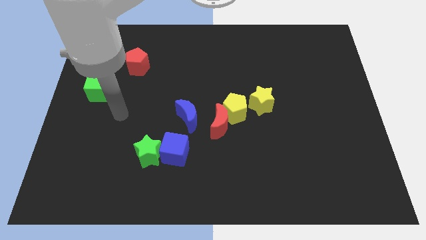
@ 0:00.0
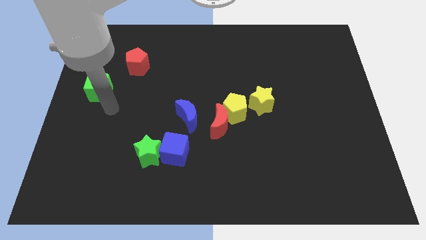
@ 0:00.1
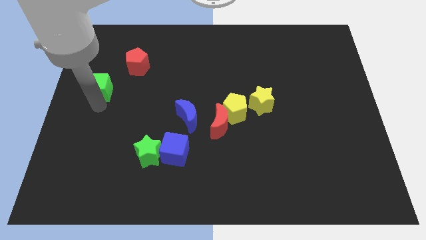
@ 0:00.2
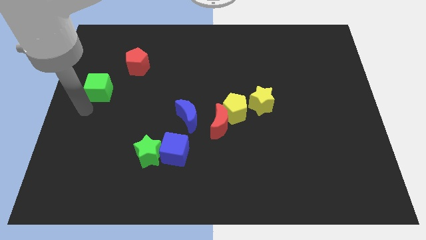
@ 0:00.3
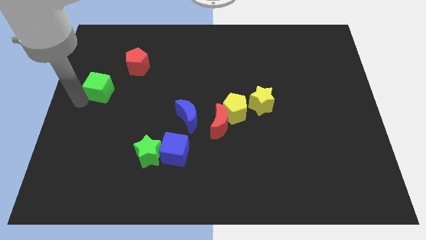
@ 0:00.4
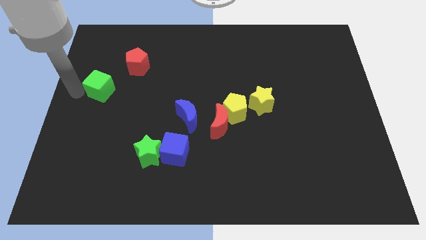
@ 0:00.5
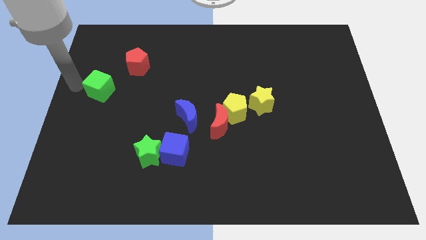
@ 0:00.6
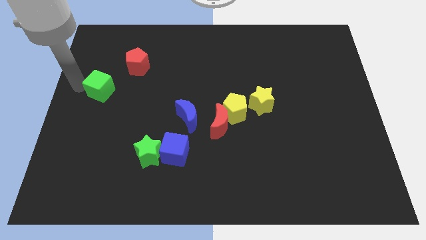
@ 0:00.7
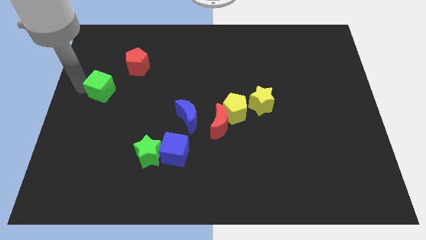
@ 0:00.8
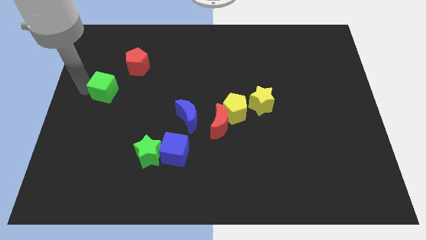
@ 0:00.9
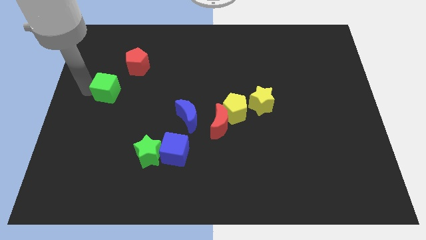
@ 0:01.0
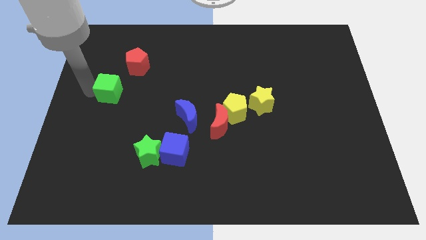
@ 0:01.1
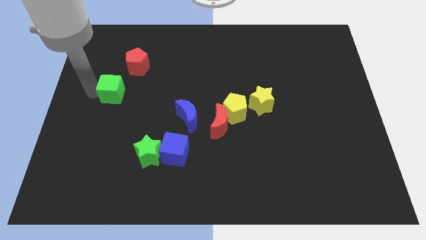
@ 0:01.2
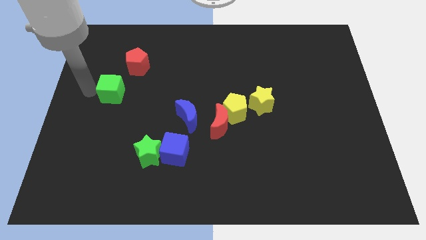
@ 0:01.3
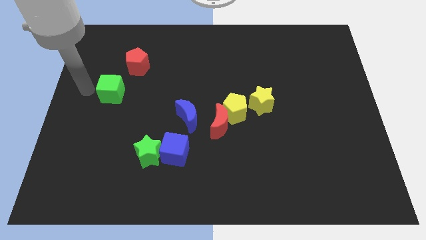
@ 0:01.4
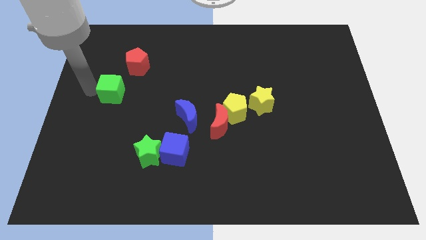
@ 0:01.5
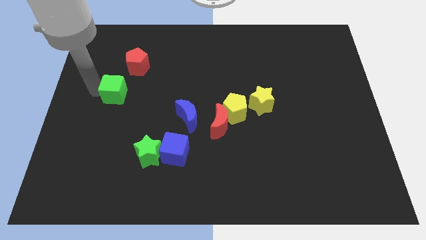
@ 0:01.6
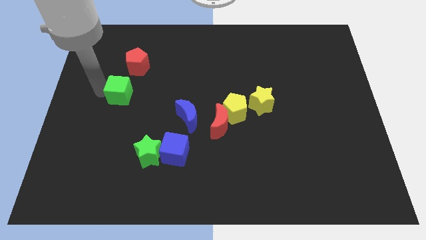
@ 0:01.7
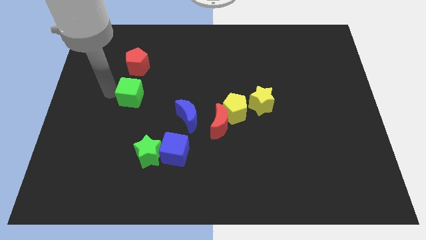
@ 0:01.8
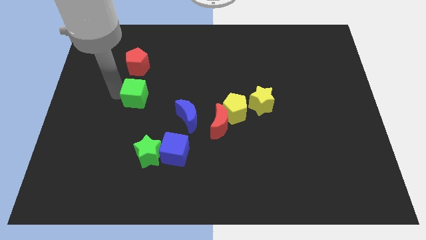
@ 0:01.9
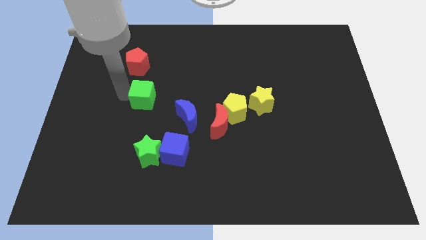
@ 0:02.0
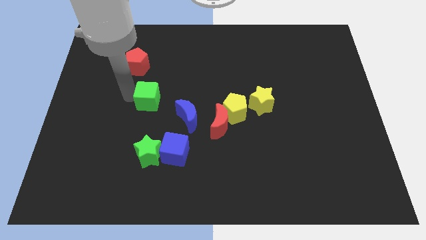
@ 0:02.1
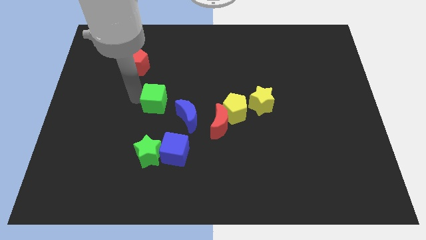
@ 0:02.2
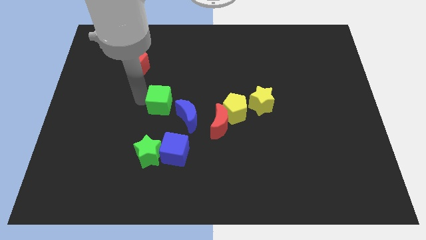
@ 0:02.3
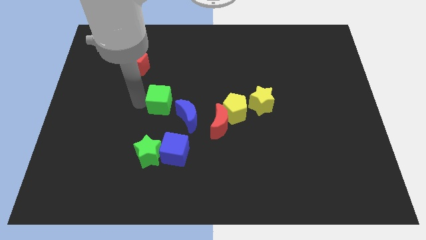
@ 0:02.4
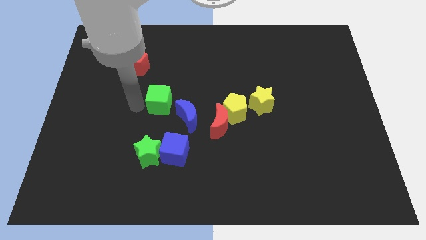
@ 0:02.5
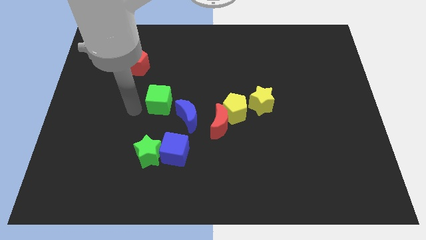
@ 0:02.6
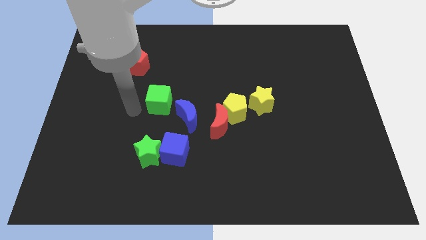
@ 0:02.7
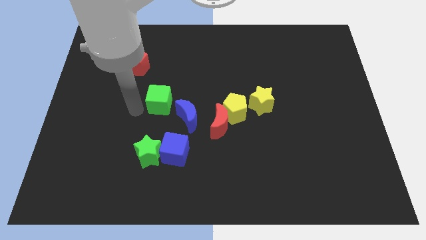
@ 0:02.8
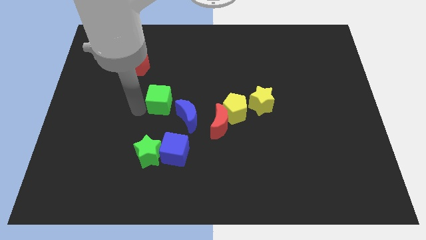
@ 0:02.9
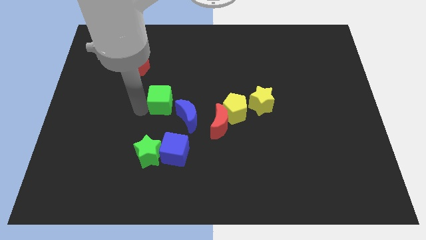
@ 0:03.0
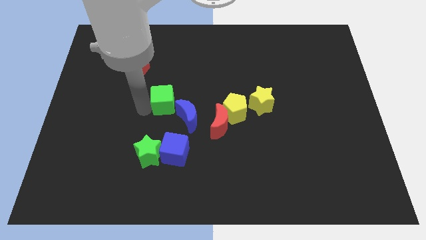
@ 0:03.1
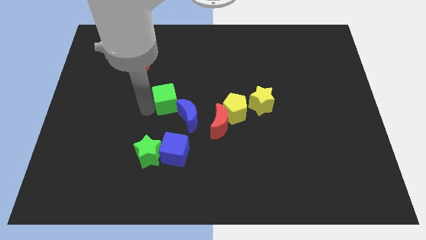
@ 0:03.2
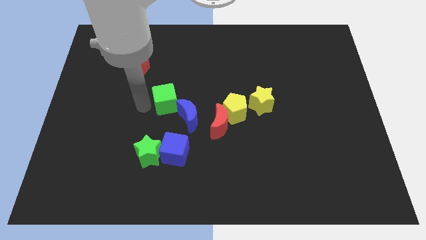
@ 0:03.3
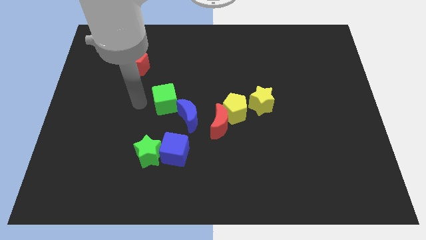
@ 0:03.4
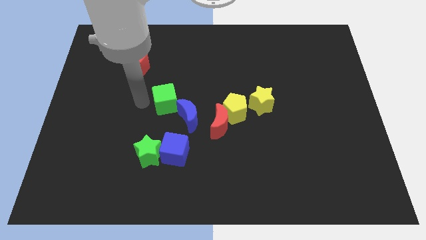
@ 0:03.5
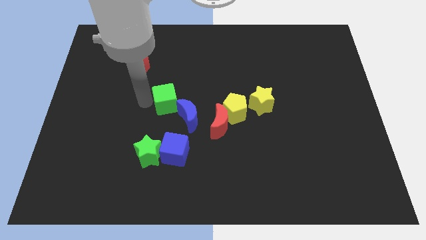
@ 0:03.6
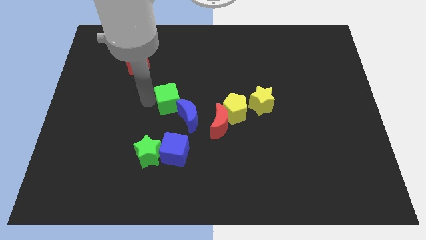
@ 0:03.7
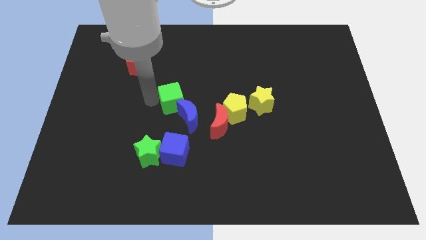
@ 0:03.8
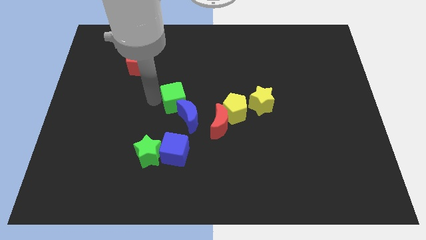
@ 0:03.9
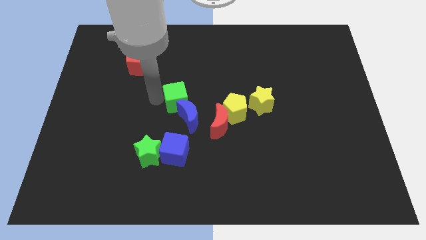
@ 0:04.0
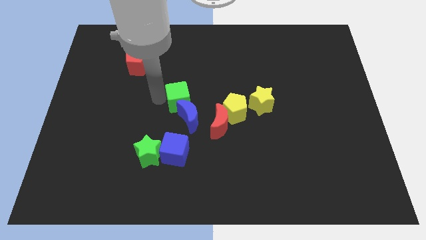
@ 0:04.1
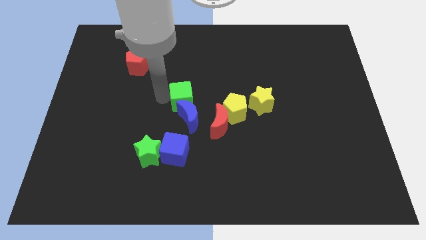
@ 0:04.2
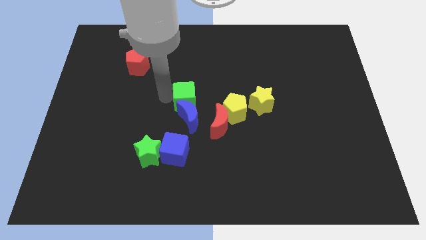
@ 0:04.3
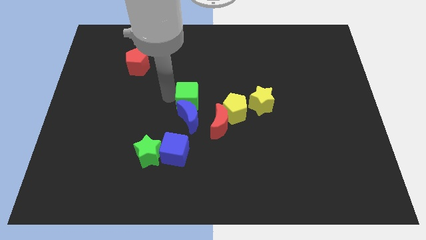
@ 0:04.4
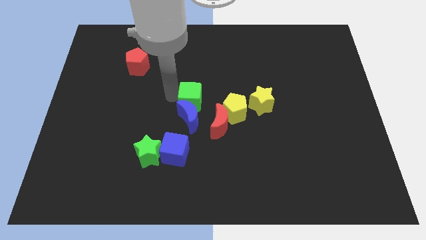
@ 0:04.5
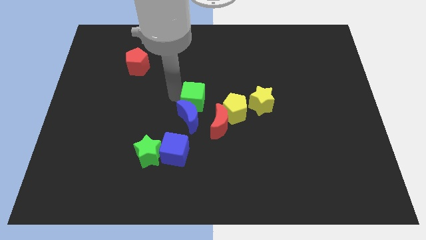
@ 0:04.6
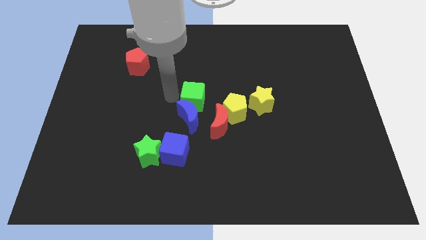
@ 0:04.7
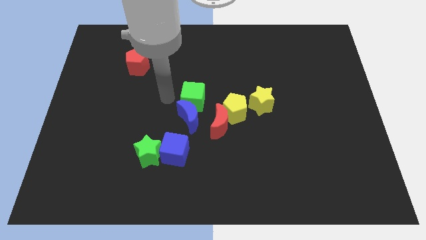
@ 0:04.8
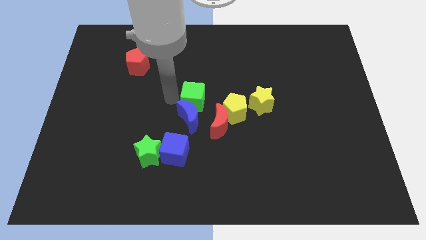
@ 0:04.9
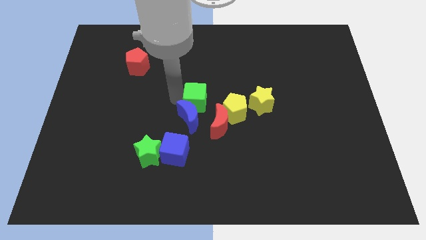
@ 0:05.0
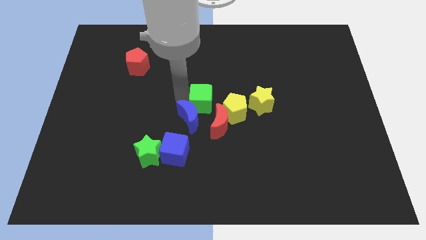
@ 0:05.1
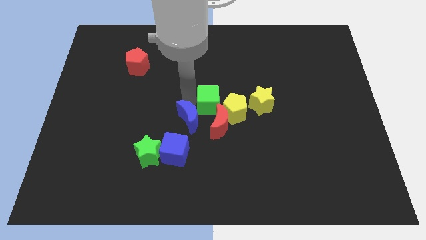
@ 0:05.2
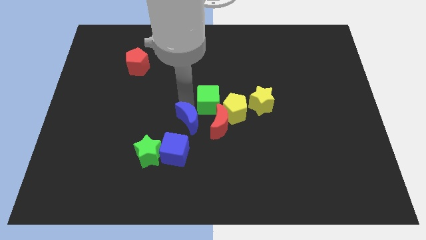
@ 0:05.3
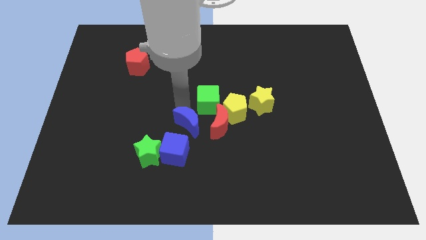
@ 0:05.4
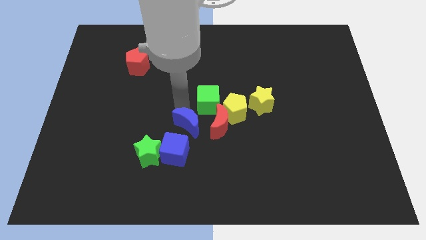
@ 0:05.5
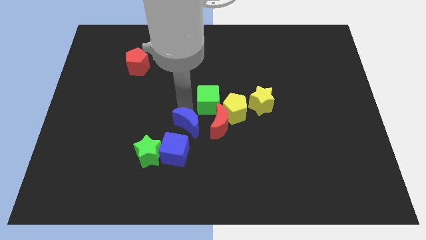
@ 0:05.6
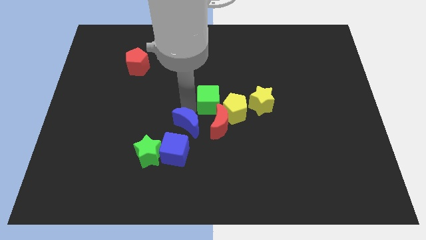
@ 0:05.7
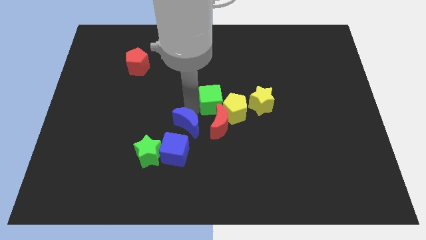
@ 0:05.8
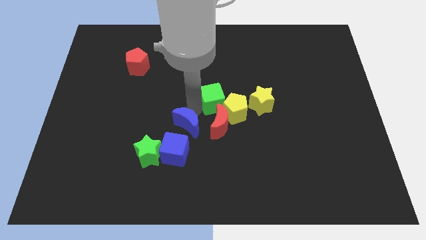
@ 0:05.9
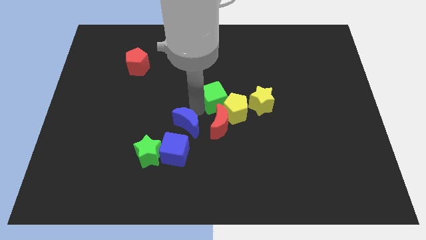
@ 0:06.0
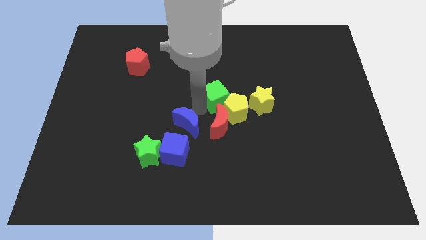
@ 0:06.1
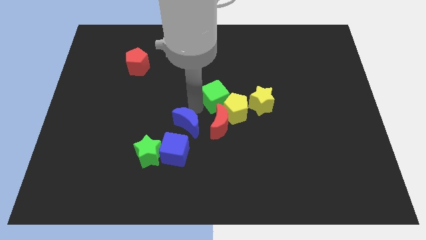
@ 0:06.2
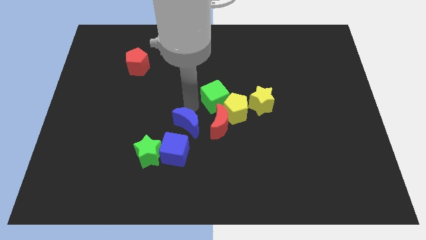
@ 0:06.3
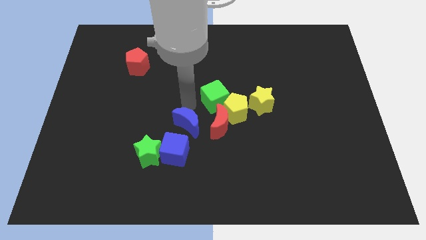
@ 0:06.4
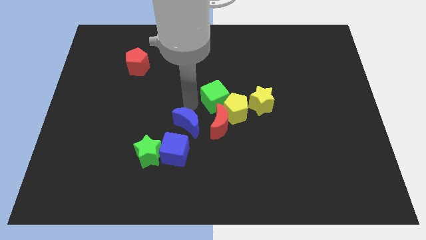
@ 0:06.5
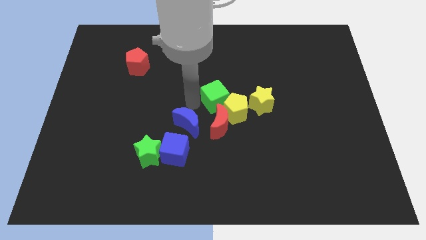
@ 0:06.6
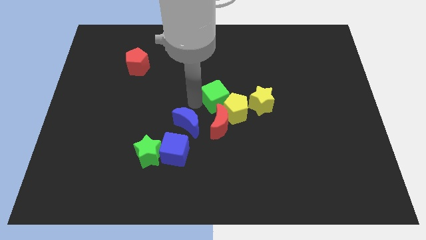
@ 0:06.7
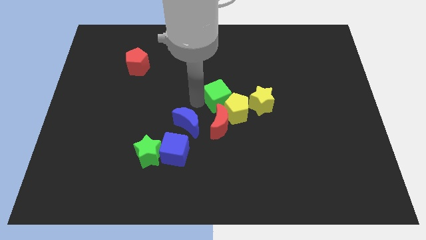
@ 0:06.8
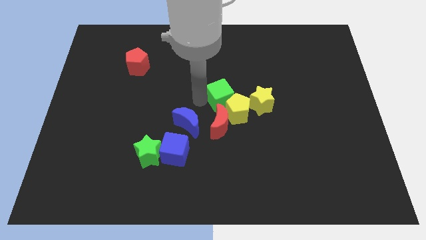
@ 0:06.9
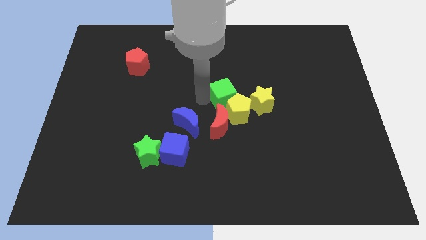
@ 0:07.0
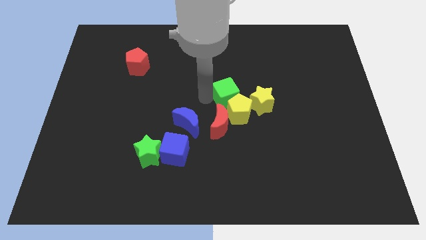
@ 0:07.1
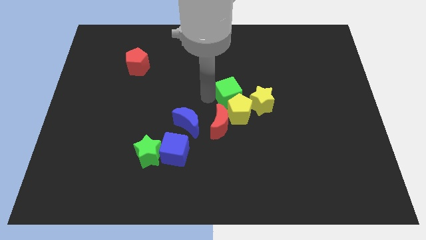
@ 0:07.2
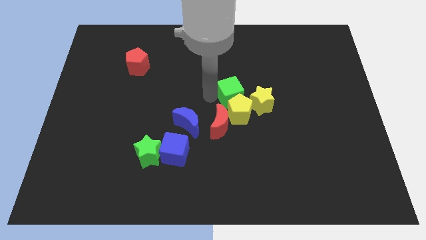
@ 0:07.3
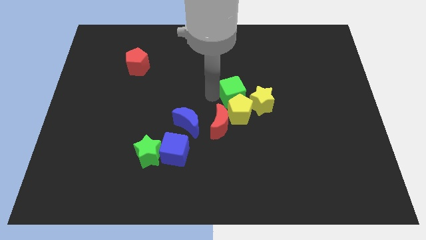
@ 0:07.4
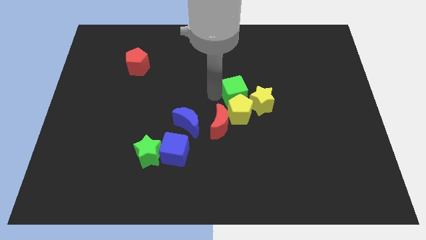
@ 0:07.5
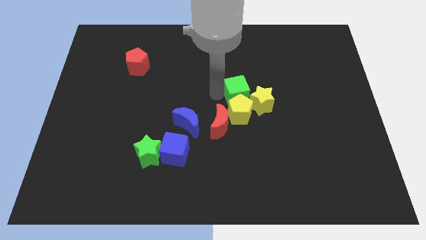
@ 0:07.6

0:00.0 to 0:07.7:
slide the green cube close to the yellow star

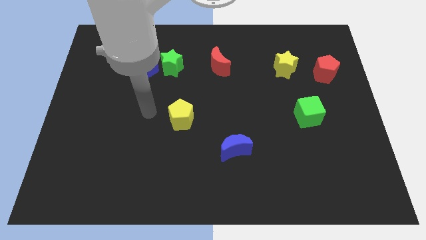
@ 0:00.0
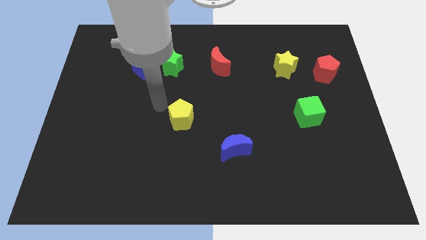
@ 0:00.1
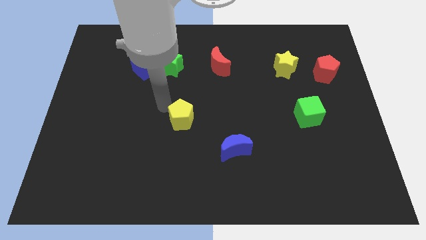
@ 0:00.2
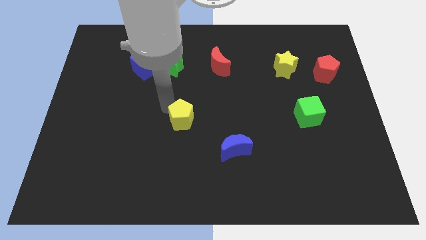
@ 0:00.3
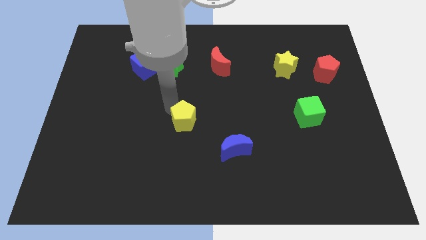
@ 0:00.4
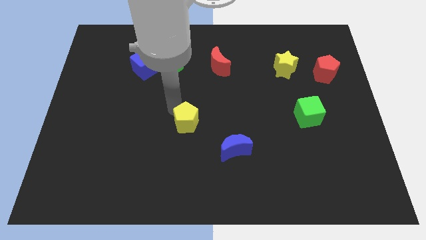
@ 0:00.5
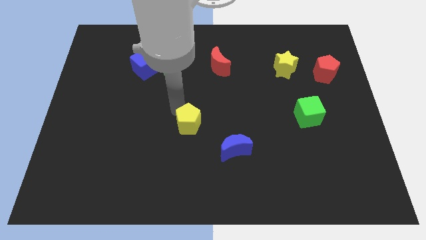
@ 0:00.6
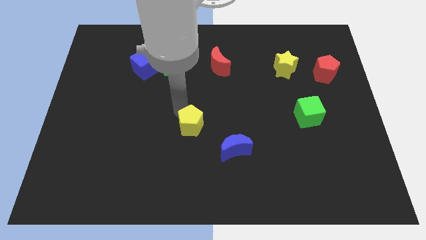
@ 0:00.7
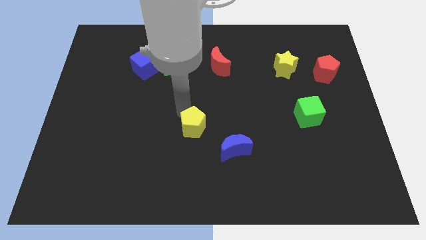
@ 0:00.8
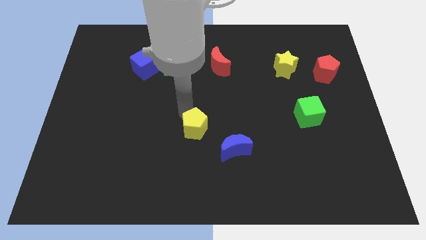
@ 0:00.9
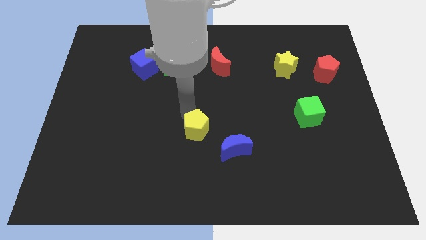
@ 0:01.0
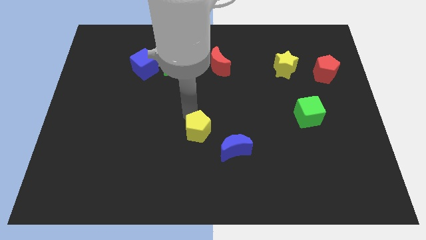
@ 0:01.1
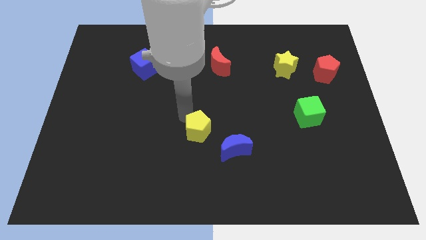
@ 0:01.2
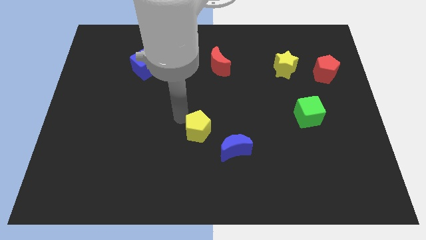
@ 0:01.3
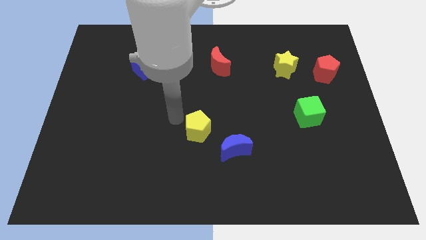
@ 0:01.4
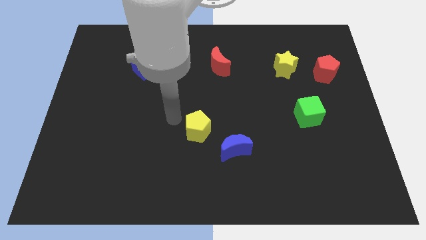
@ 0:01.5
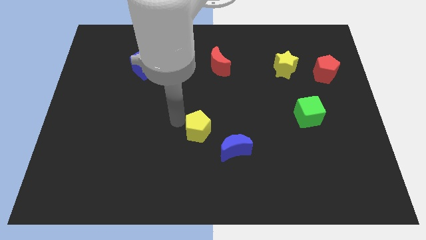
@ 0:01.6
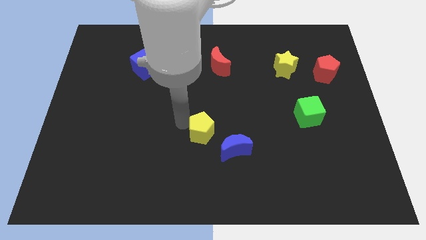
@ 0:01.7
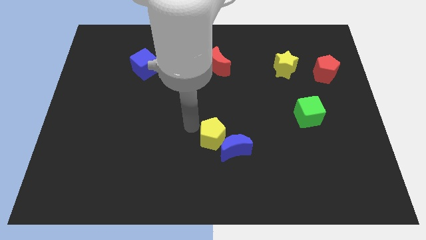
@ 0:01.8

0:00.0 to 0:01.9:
push the yellow pentagon next to the blue moon
